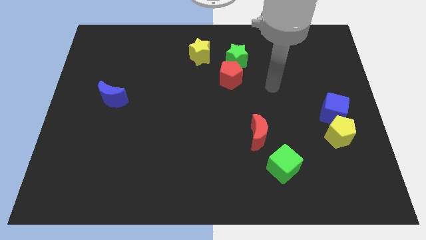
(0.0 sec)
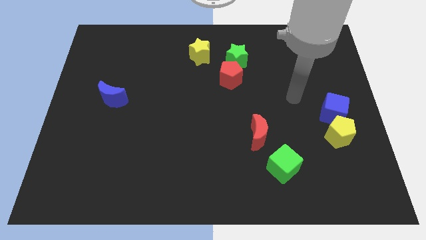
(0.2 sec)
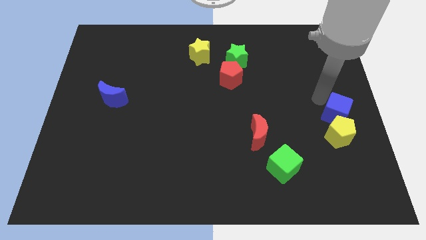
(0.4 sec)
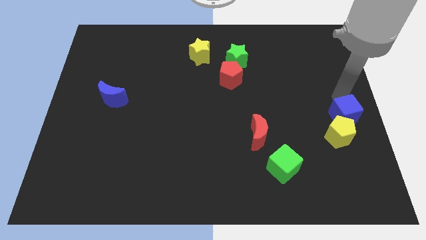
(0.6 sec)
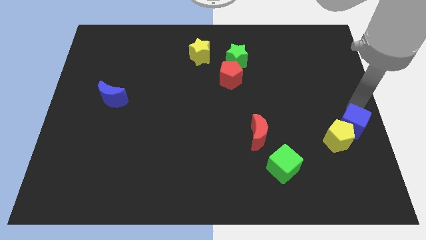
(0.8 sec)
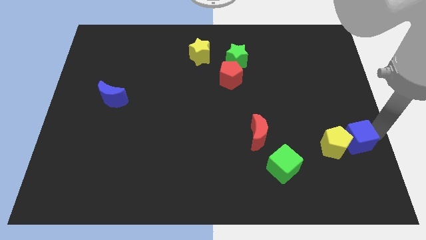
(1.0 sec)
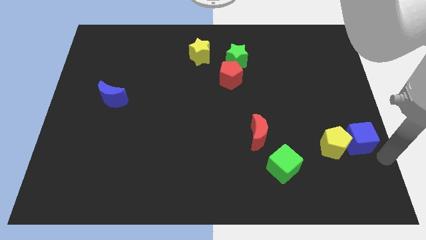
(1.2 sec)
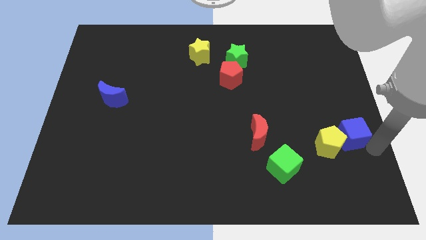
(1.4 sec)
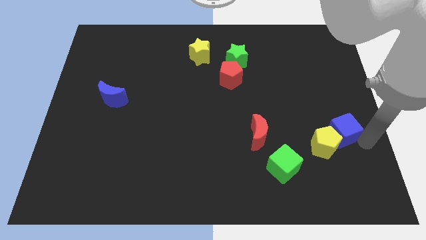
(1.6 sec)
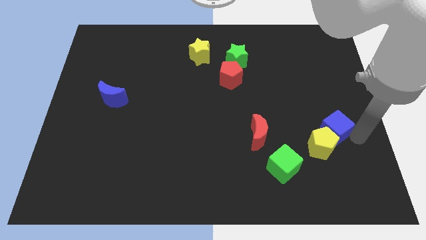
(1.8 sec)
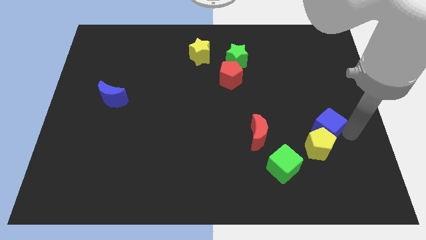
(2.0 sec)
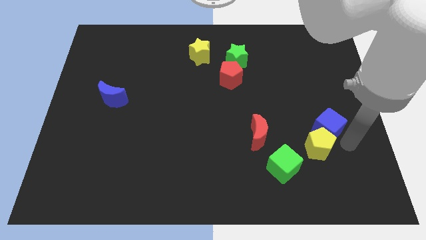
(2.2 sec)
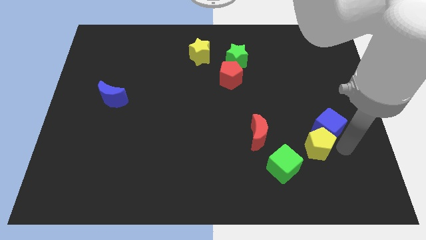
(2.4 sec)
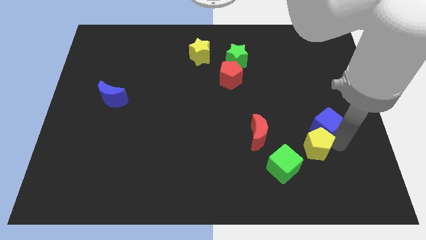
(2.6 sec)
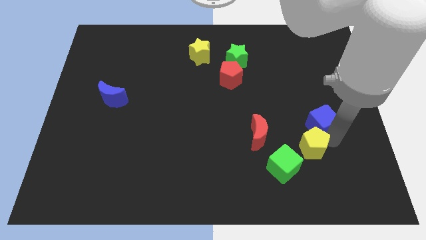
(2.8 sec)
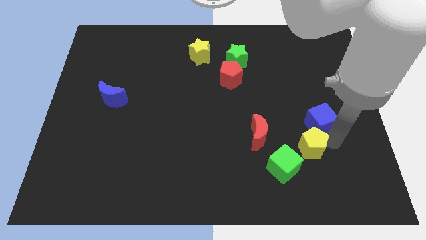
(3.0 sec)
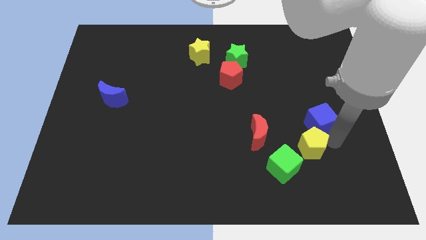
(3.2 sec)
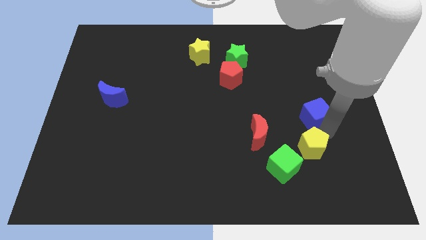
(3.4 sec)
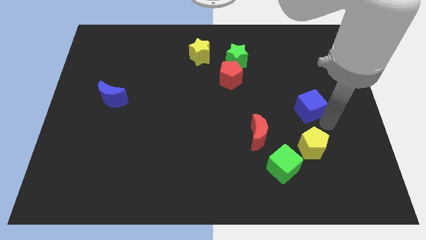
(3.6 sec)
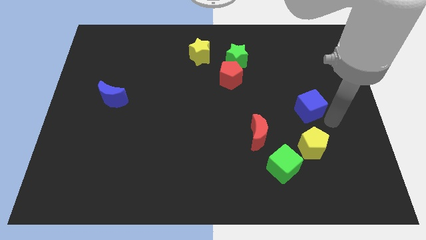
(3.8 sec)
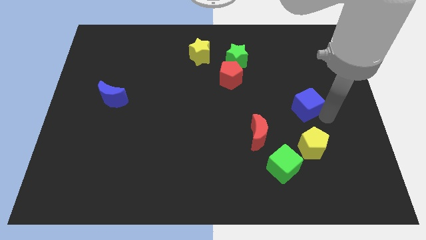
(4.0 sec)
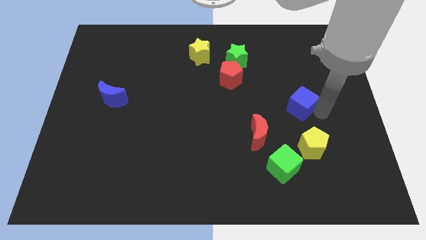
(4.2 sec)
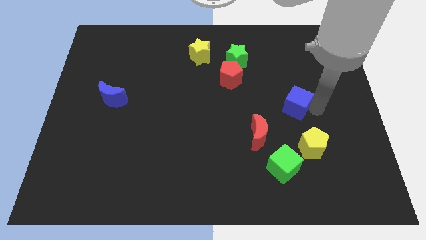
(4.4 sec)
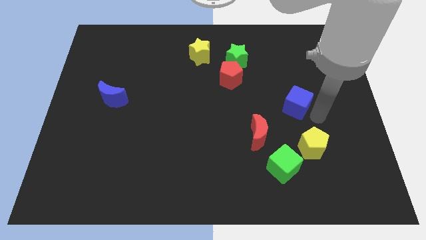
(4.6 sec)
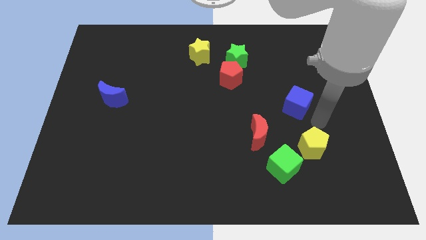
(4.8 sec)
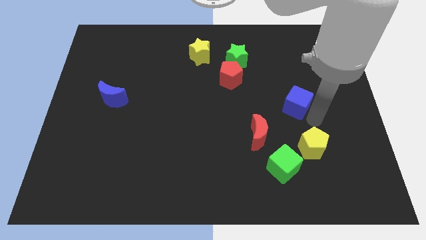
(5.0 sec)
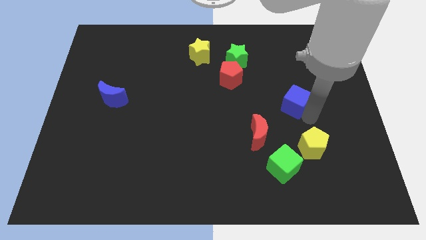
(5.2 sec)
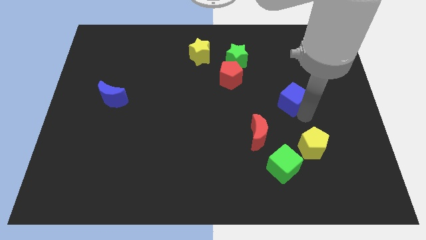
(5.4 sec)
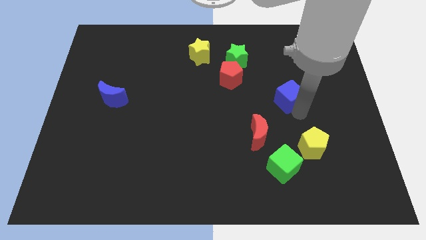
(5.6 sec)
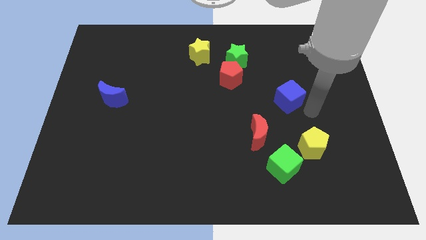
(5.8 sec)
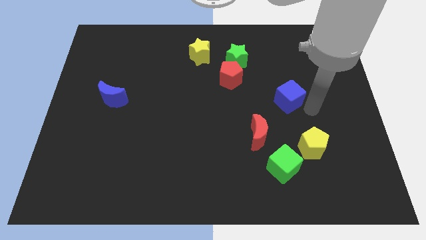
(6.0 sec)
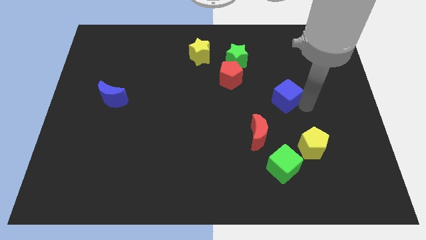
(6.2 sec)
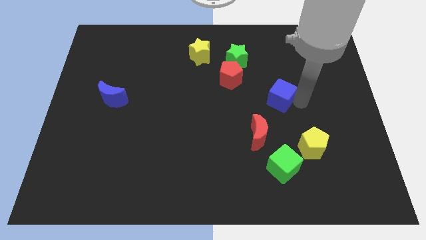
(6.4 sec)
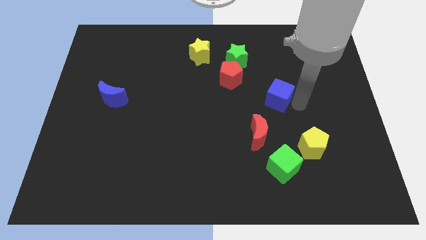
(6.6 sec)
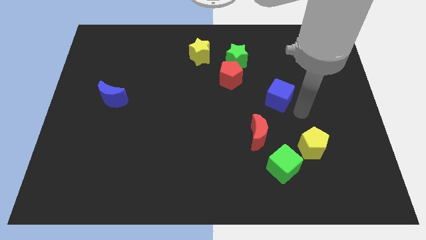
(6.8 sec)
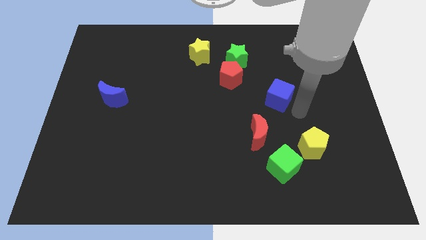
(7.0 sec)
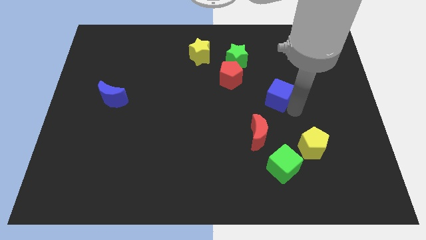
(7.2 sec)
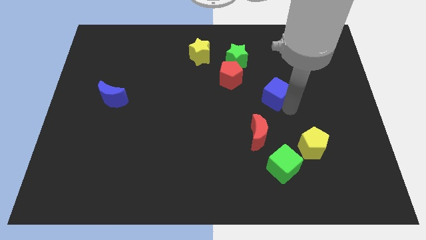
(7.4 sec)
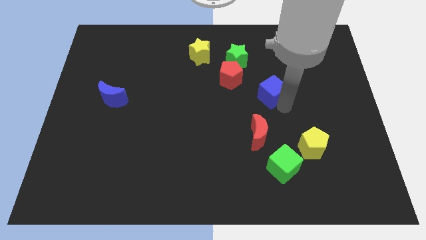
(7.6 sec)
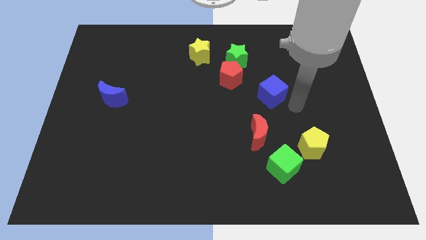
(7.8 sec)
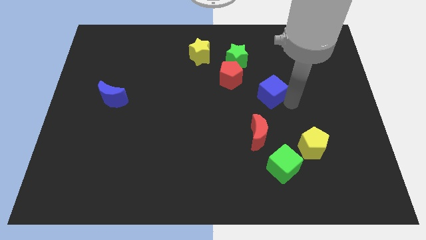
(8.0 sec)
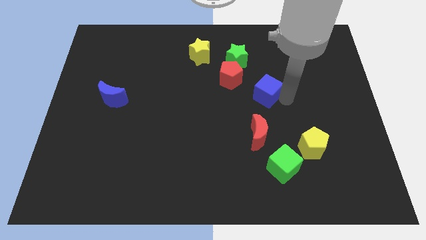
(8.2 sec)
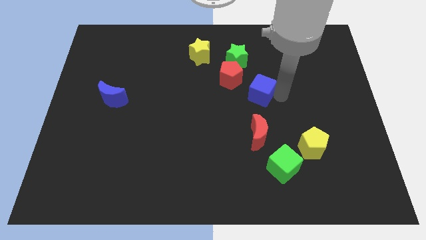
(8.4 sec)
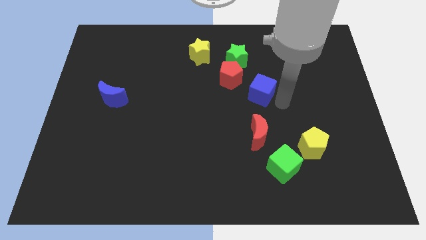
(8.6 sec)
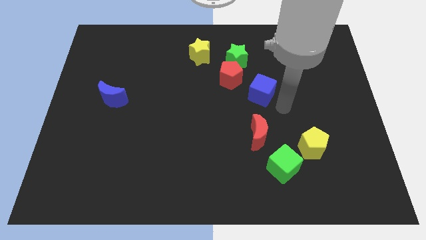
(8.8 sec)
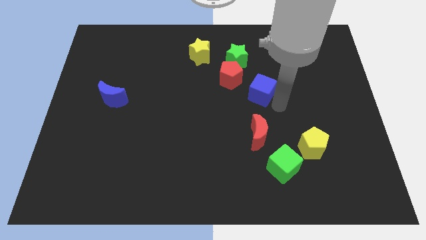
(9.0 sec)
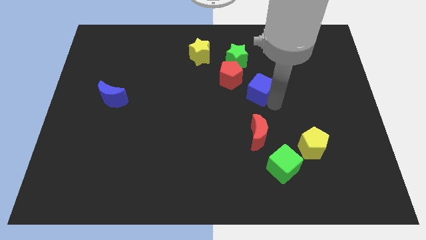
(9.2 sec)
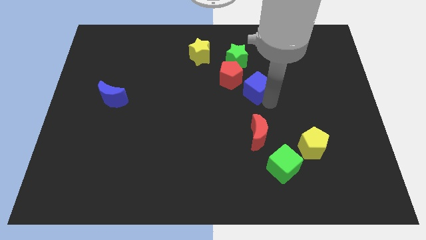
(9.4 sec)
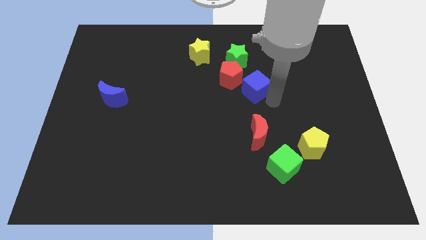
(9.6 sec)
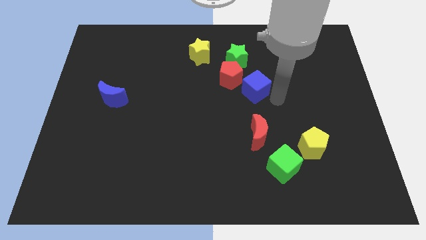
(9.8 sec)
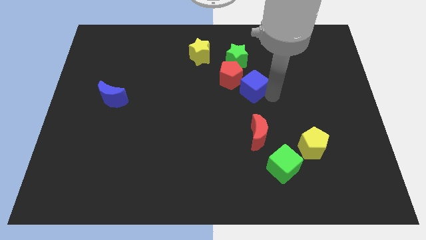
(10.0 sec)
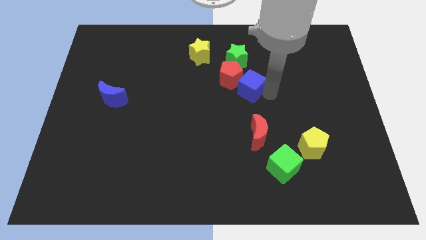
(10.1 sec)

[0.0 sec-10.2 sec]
slide the blue cube next to the red pentagon

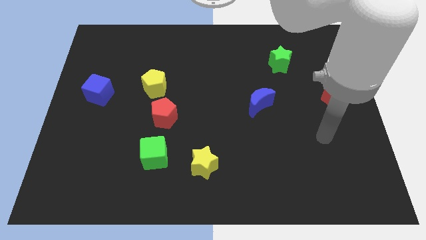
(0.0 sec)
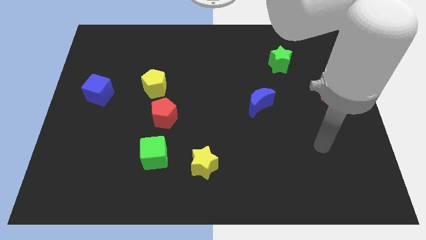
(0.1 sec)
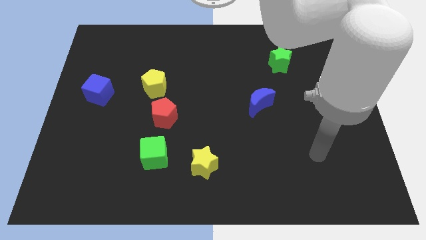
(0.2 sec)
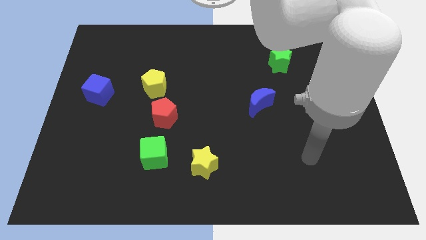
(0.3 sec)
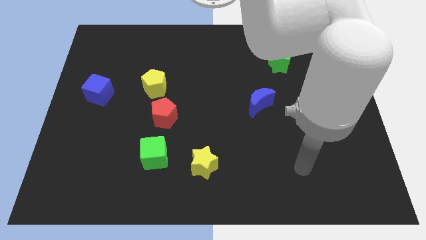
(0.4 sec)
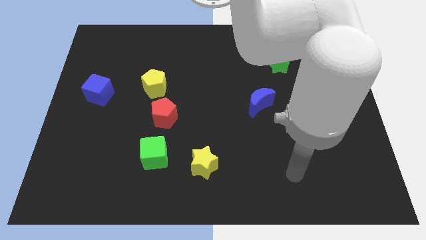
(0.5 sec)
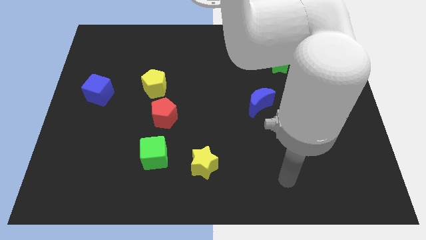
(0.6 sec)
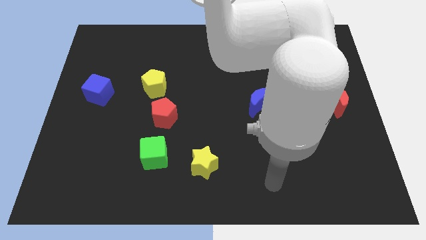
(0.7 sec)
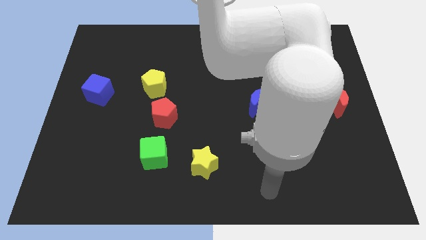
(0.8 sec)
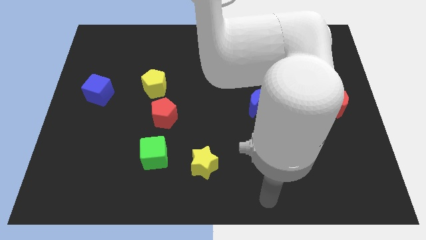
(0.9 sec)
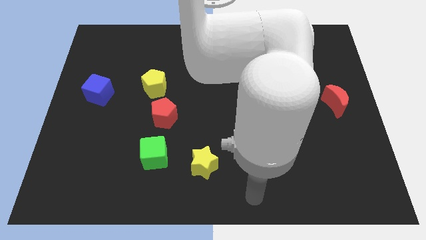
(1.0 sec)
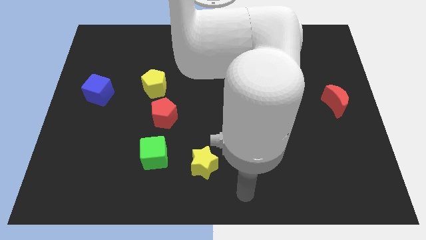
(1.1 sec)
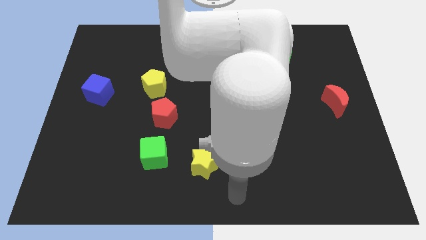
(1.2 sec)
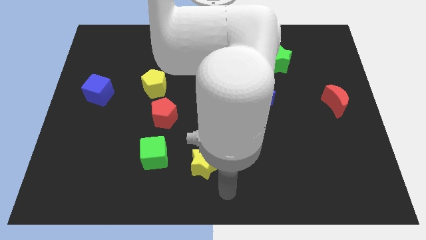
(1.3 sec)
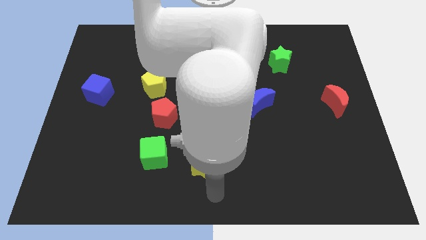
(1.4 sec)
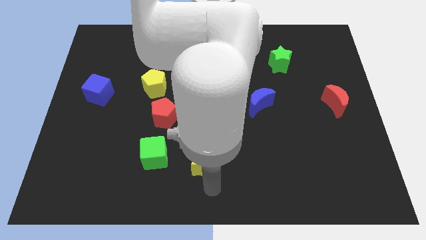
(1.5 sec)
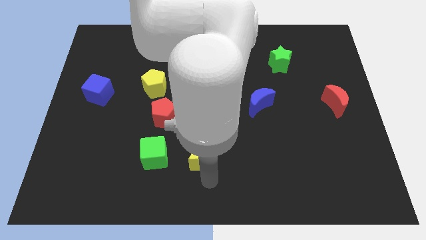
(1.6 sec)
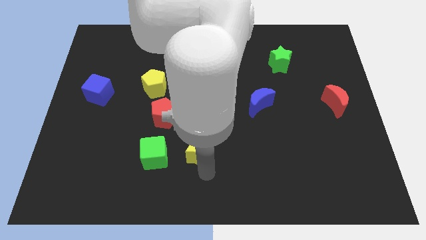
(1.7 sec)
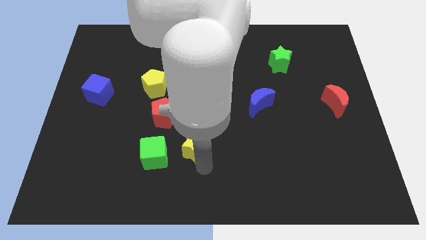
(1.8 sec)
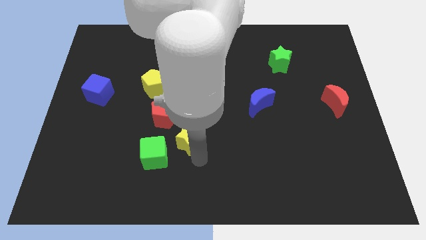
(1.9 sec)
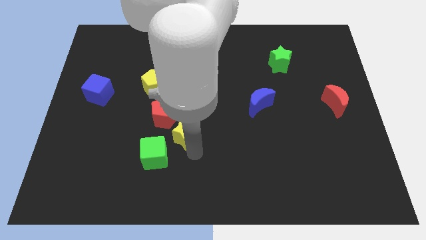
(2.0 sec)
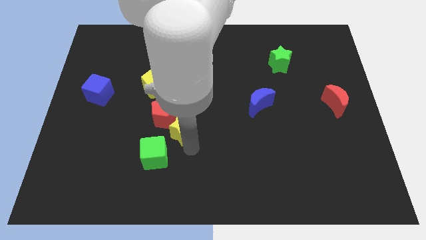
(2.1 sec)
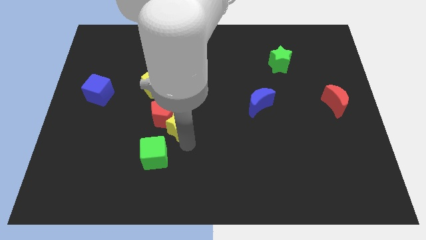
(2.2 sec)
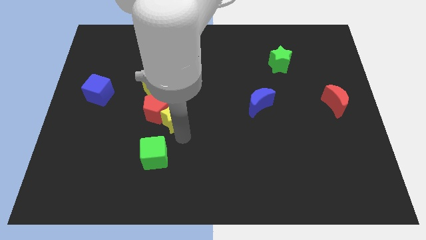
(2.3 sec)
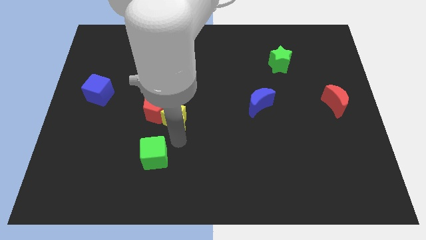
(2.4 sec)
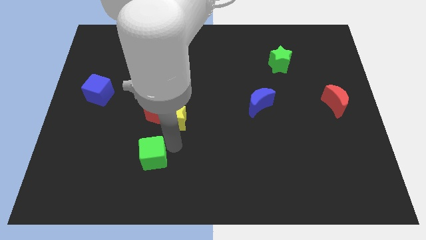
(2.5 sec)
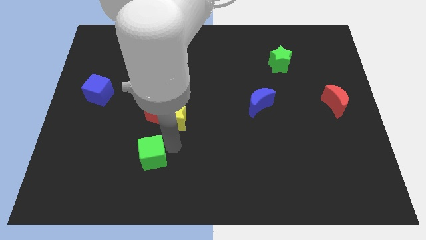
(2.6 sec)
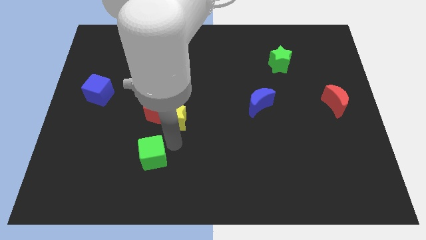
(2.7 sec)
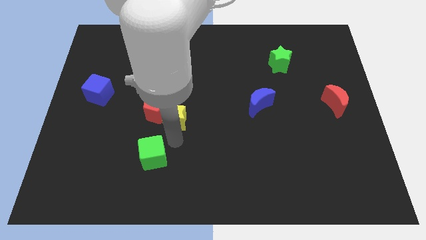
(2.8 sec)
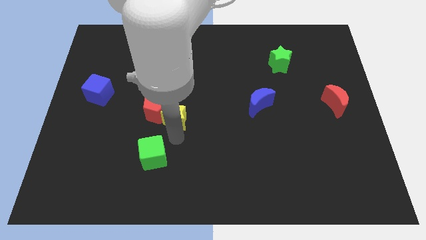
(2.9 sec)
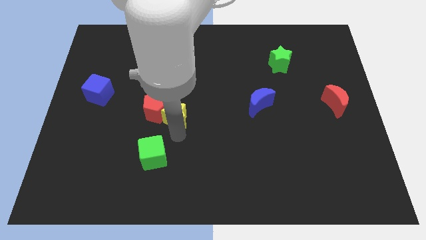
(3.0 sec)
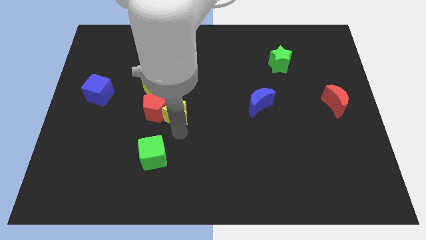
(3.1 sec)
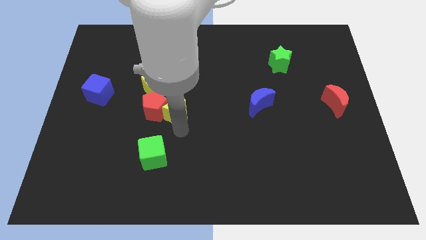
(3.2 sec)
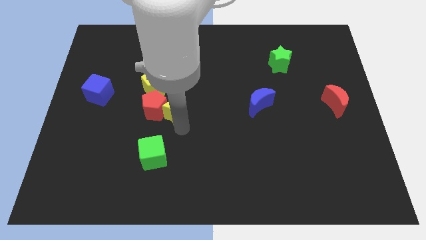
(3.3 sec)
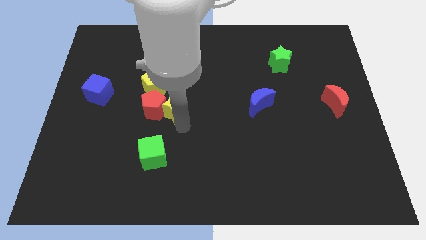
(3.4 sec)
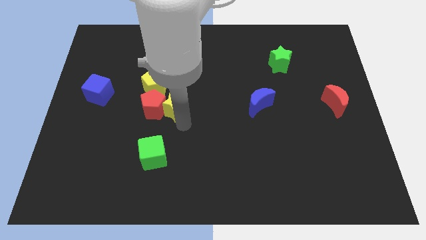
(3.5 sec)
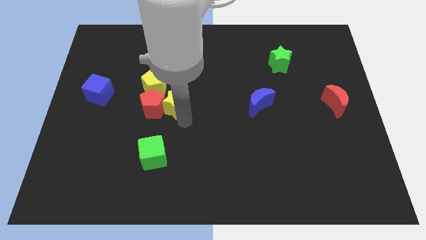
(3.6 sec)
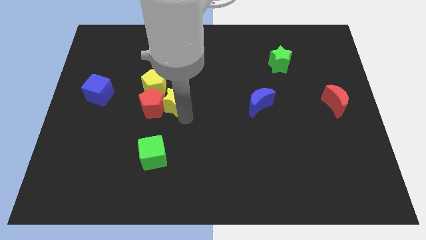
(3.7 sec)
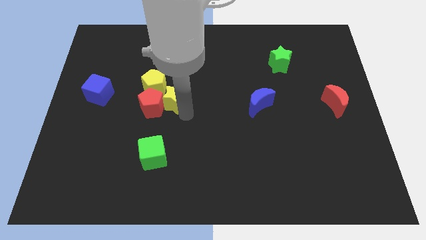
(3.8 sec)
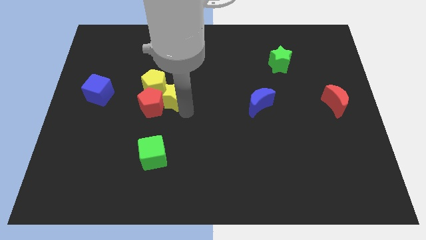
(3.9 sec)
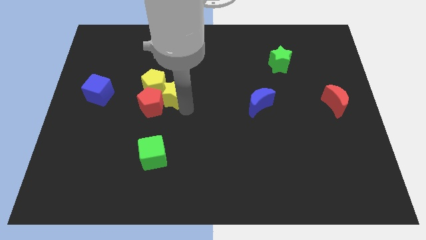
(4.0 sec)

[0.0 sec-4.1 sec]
move the yellow star next to the yellow pentagon
